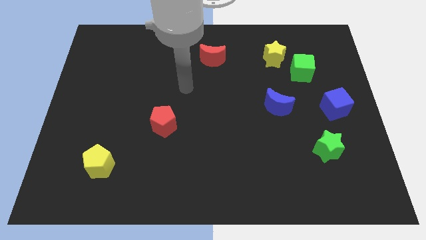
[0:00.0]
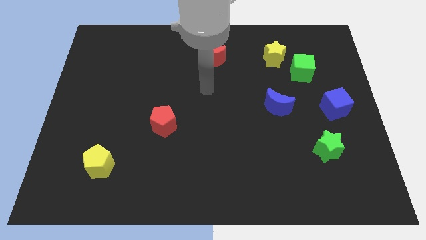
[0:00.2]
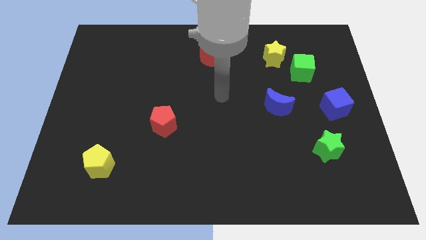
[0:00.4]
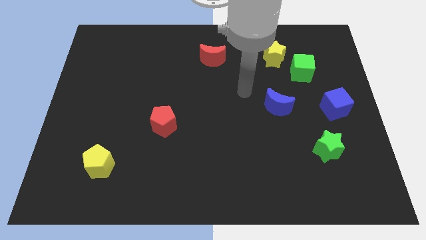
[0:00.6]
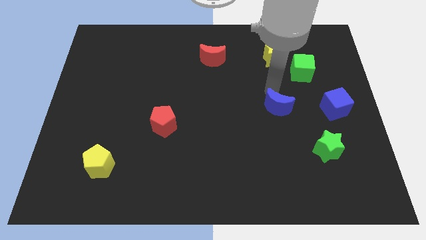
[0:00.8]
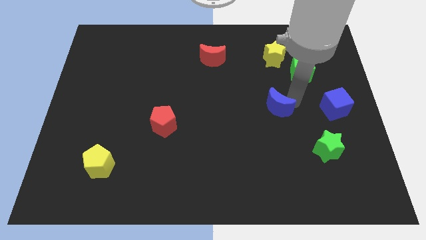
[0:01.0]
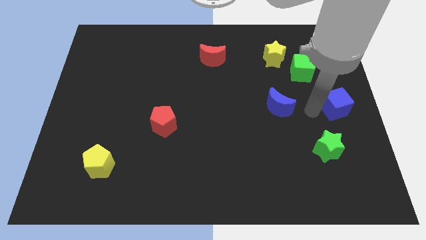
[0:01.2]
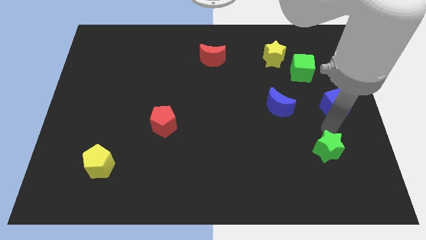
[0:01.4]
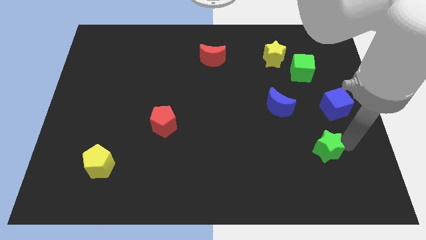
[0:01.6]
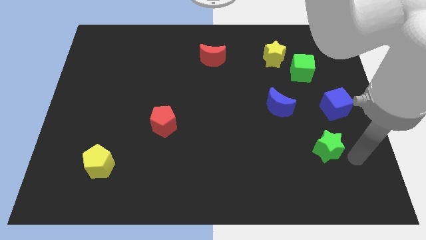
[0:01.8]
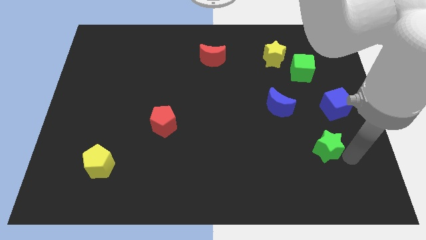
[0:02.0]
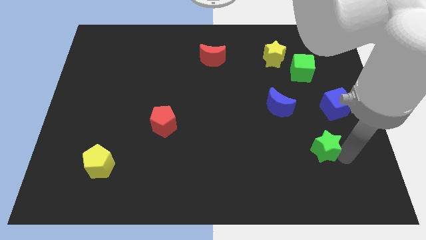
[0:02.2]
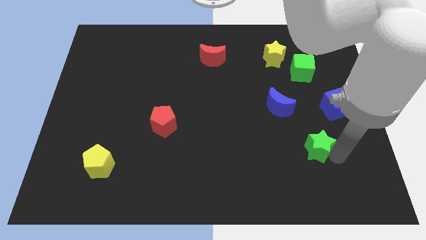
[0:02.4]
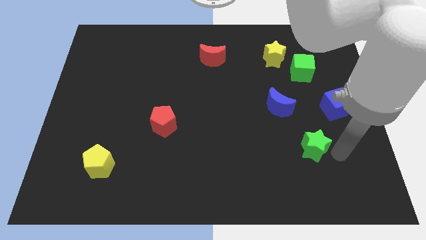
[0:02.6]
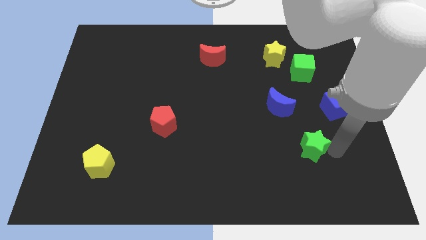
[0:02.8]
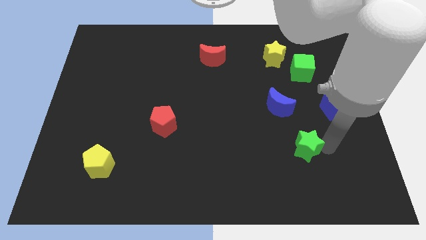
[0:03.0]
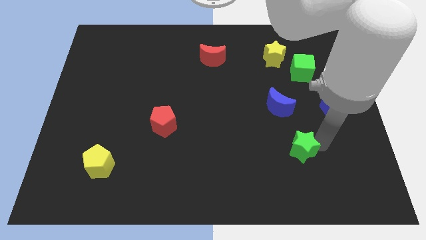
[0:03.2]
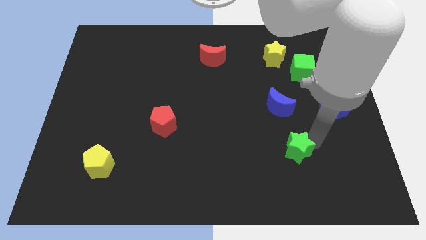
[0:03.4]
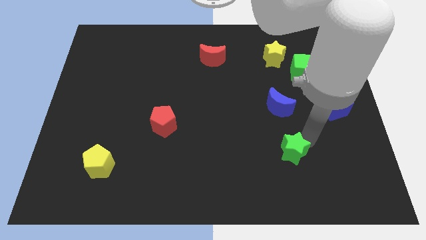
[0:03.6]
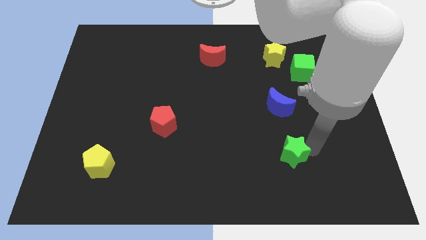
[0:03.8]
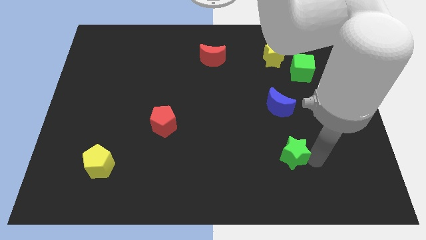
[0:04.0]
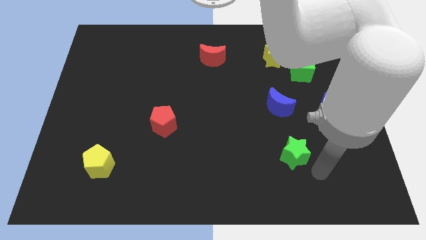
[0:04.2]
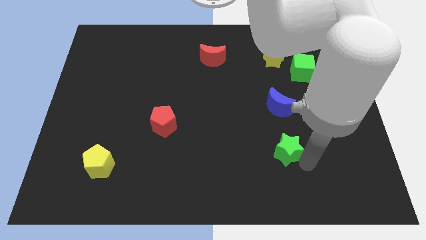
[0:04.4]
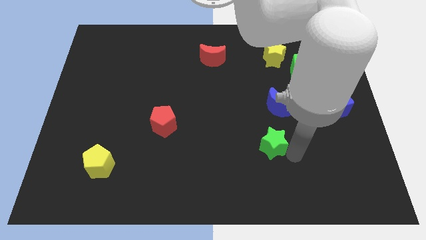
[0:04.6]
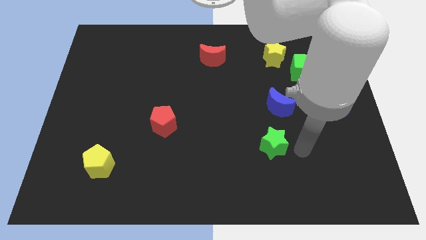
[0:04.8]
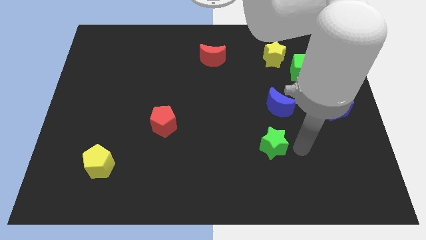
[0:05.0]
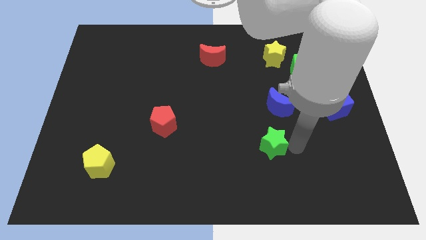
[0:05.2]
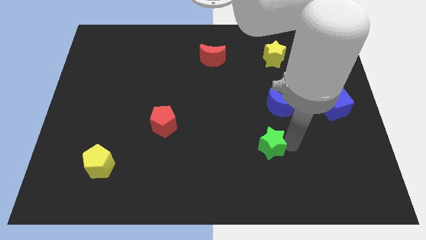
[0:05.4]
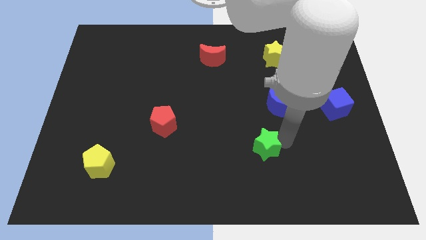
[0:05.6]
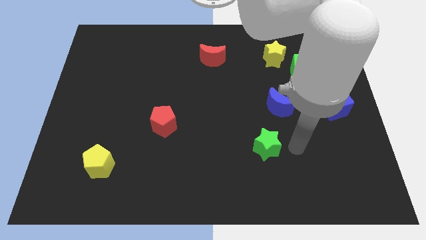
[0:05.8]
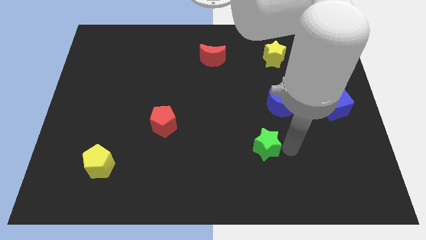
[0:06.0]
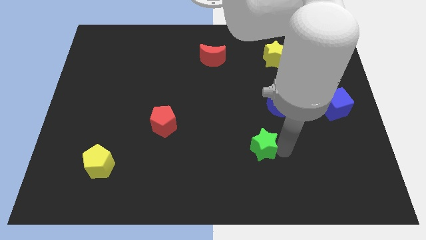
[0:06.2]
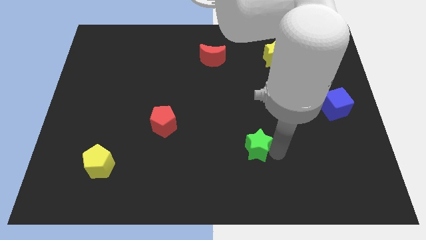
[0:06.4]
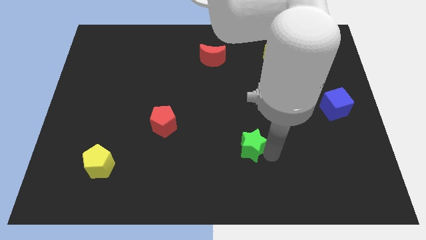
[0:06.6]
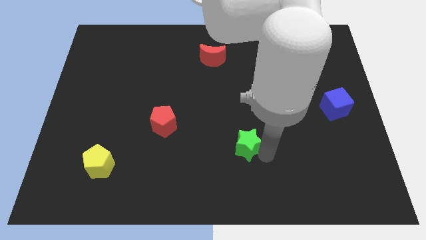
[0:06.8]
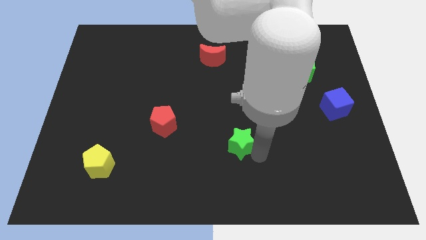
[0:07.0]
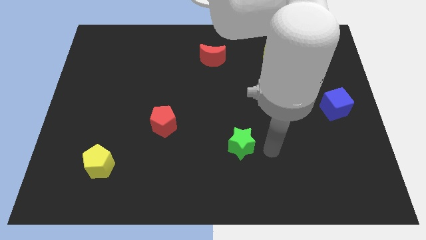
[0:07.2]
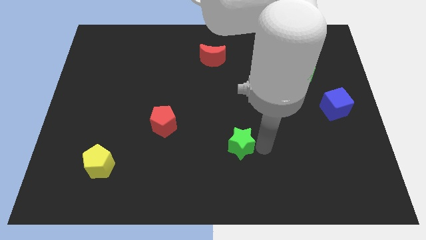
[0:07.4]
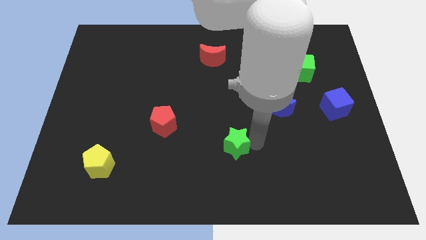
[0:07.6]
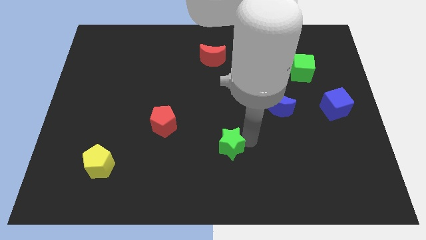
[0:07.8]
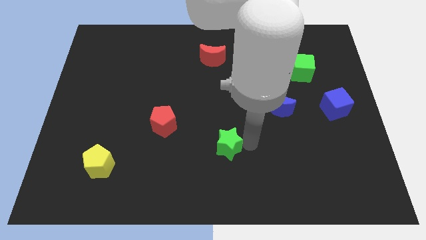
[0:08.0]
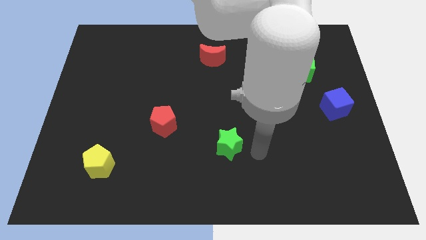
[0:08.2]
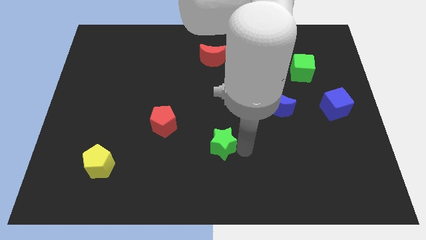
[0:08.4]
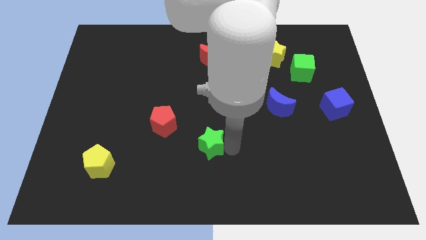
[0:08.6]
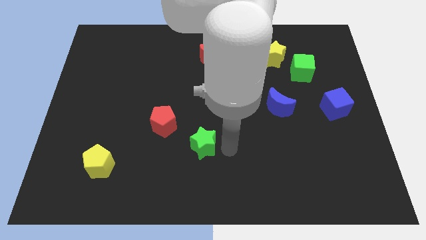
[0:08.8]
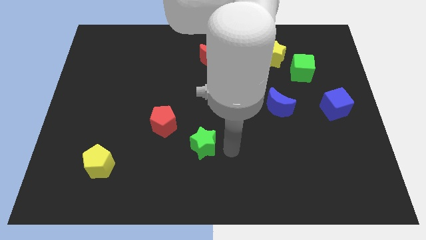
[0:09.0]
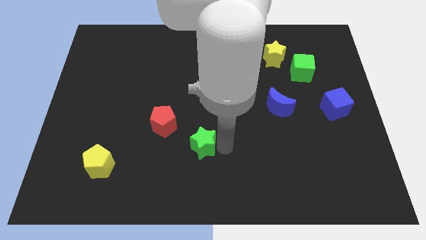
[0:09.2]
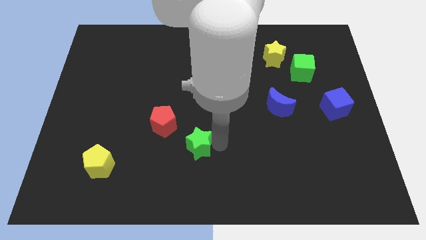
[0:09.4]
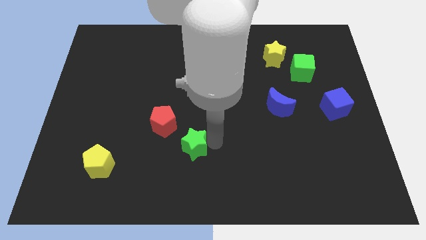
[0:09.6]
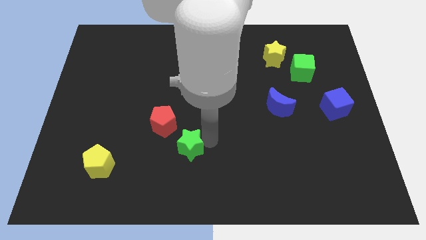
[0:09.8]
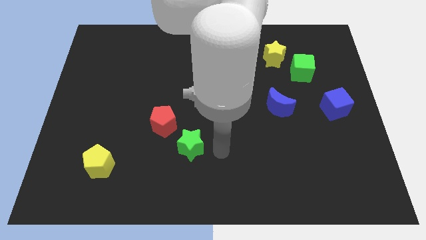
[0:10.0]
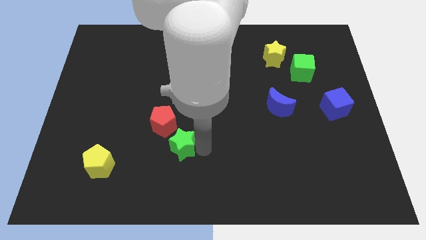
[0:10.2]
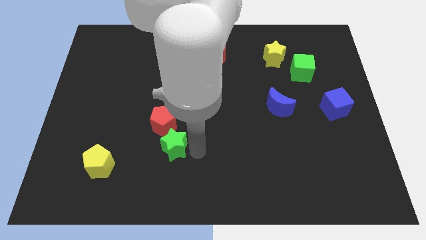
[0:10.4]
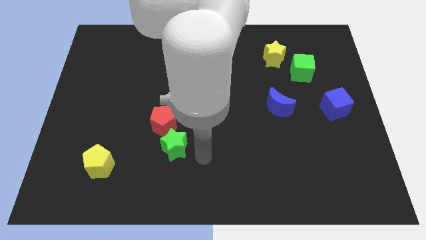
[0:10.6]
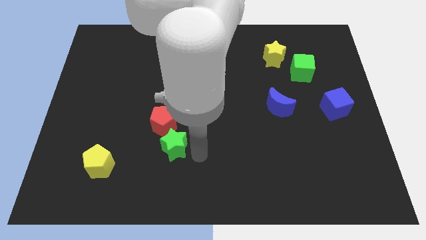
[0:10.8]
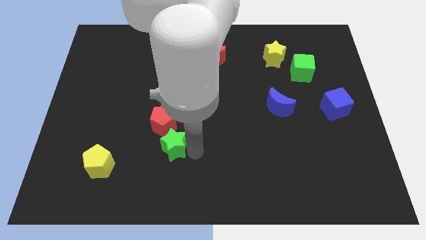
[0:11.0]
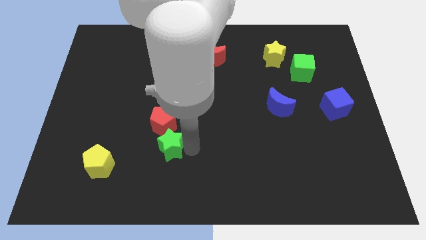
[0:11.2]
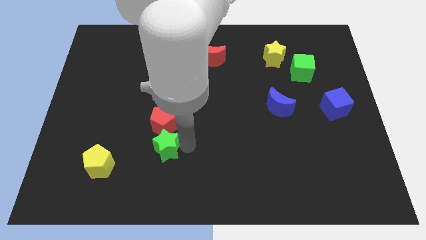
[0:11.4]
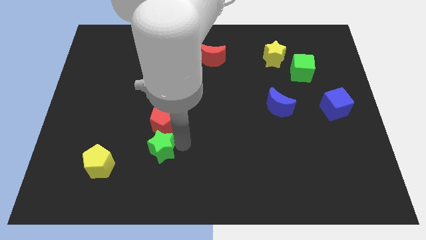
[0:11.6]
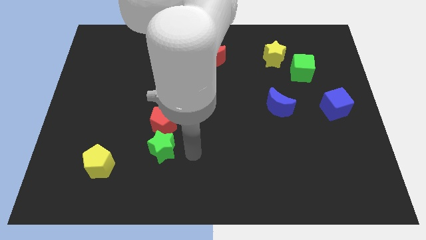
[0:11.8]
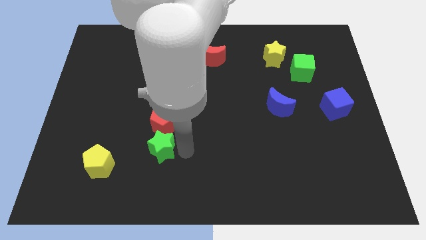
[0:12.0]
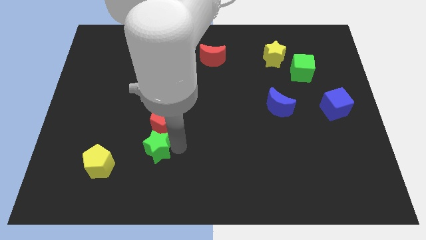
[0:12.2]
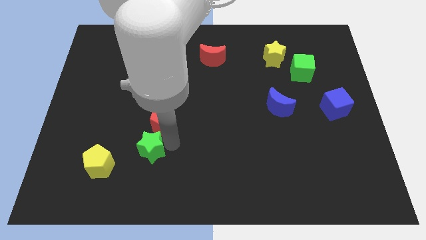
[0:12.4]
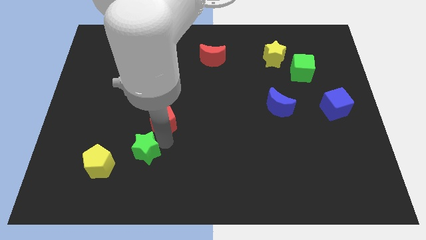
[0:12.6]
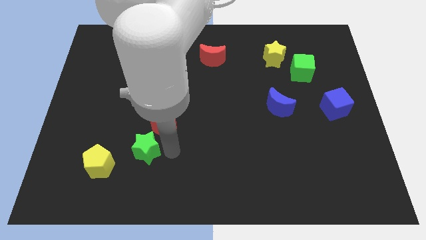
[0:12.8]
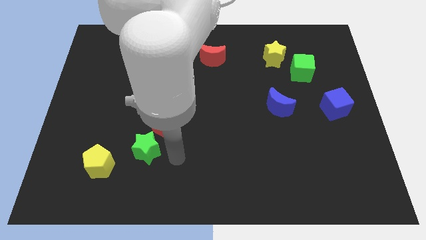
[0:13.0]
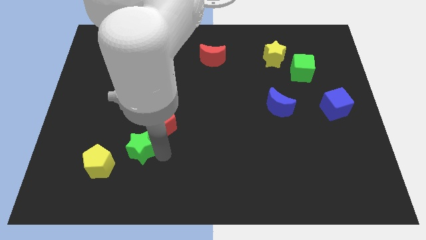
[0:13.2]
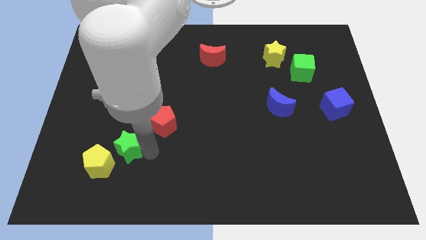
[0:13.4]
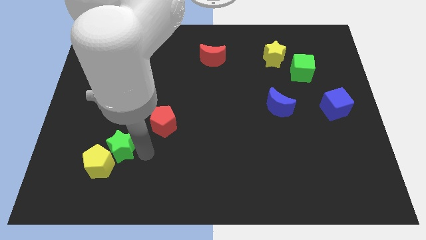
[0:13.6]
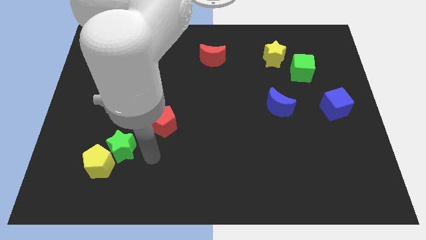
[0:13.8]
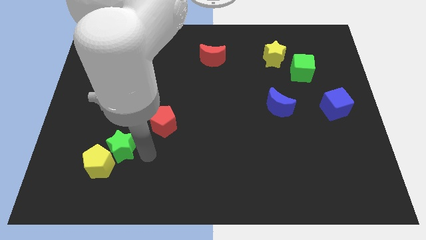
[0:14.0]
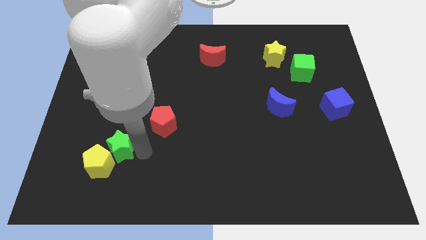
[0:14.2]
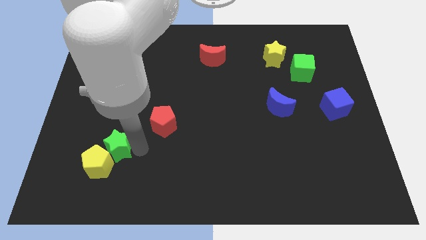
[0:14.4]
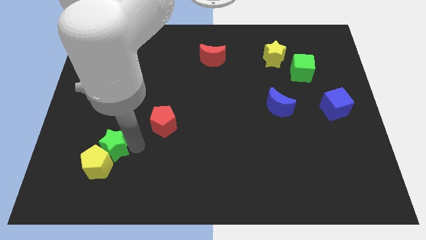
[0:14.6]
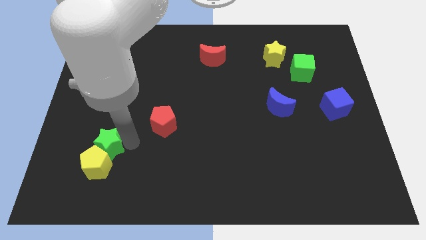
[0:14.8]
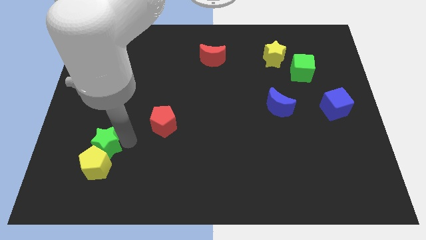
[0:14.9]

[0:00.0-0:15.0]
put the green star to the top left of the yellow pentagon
